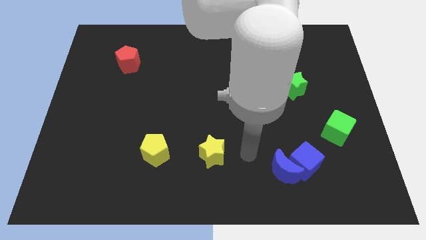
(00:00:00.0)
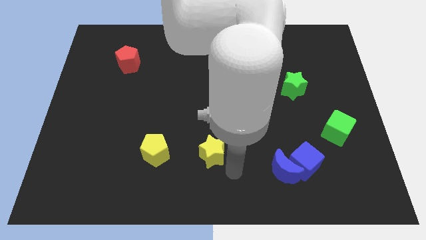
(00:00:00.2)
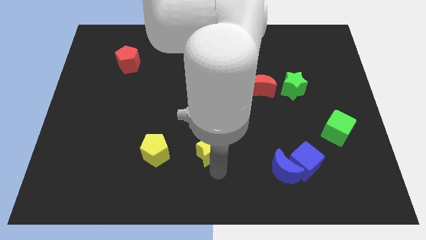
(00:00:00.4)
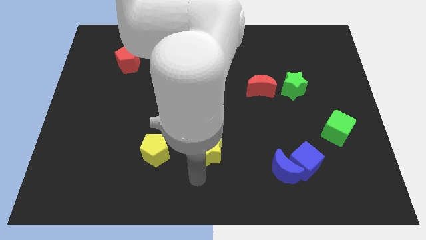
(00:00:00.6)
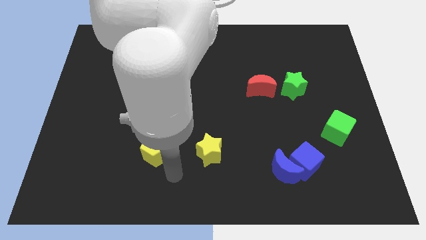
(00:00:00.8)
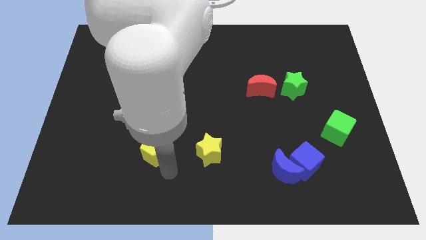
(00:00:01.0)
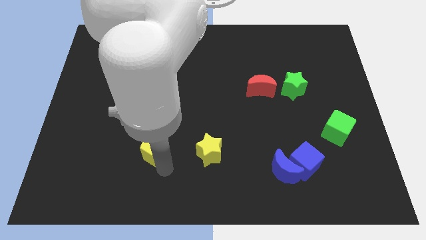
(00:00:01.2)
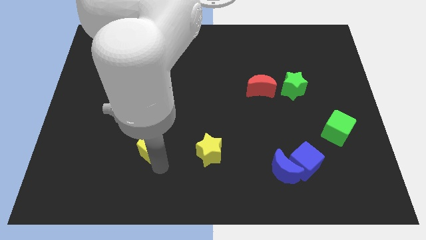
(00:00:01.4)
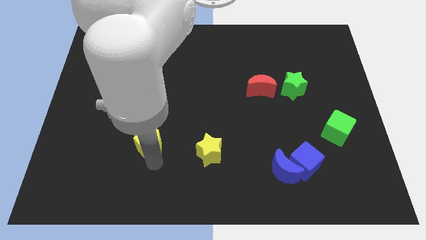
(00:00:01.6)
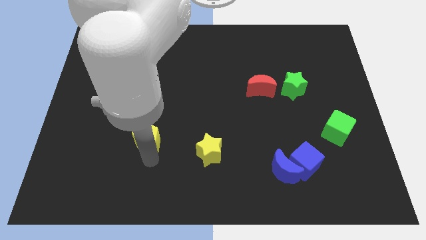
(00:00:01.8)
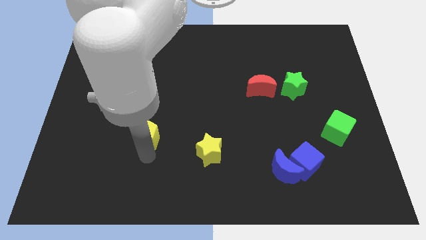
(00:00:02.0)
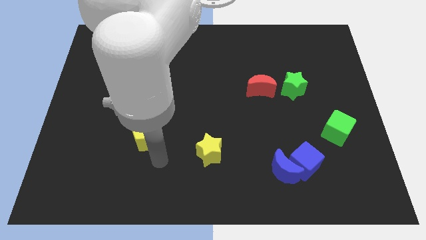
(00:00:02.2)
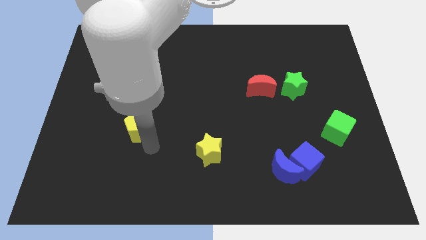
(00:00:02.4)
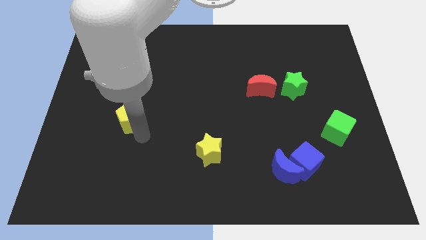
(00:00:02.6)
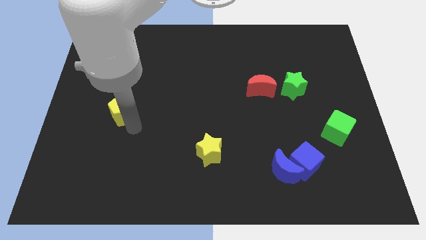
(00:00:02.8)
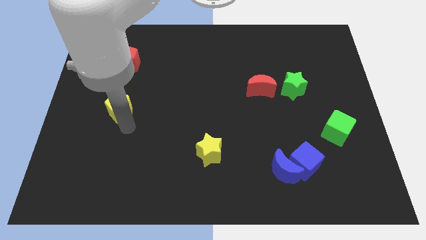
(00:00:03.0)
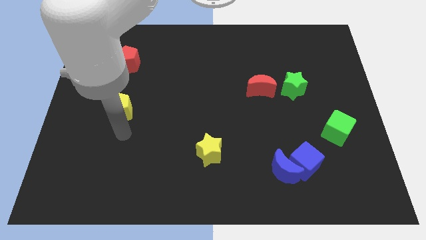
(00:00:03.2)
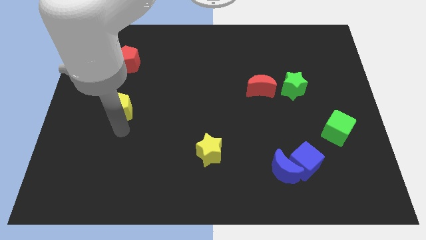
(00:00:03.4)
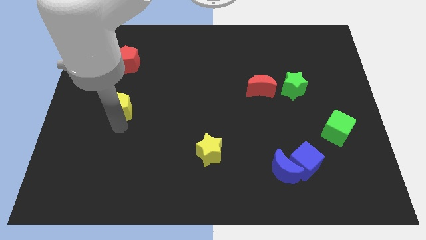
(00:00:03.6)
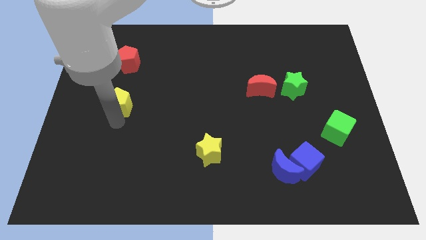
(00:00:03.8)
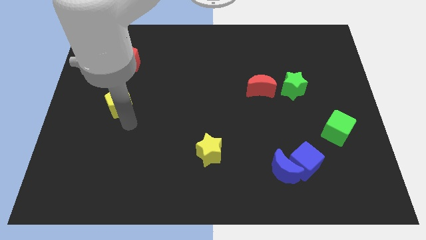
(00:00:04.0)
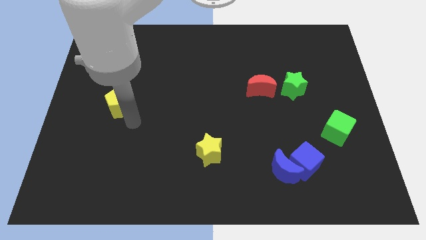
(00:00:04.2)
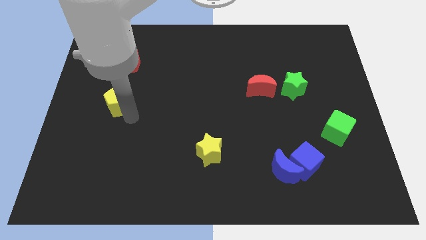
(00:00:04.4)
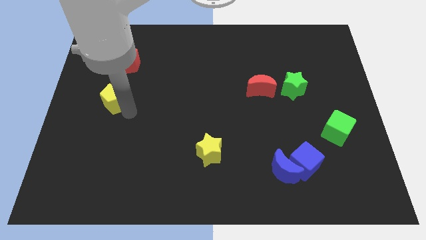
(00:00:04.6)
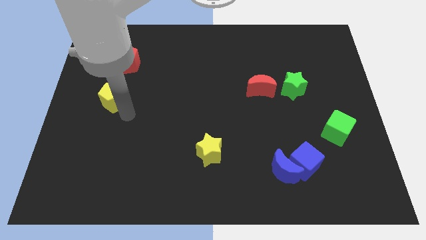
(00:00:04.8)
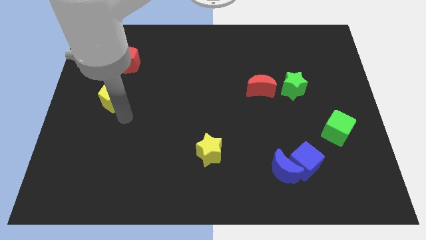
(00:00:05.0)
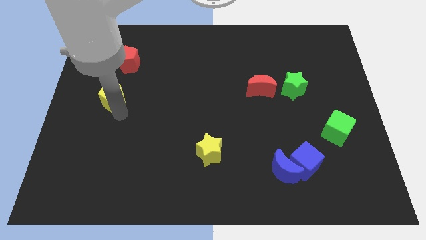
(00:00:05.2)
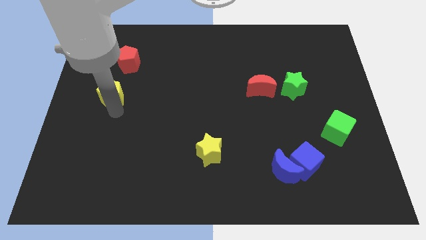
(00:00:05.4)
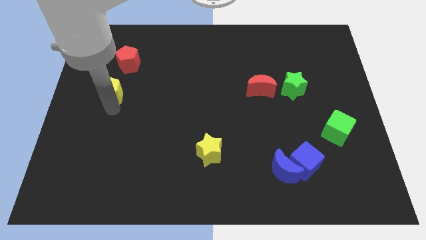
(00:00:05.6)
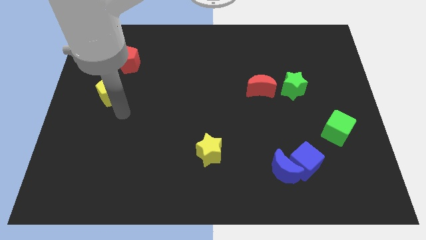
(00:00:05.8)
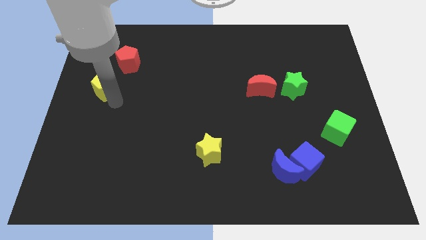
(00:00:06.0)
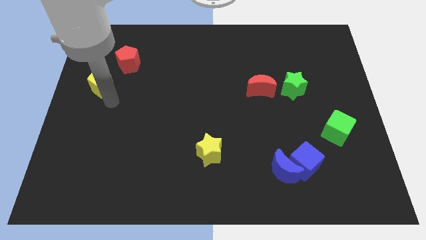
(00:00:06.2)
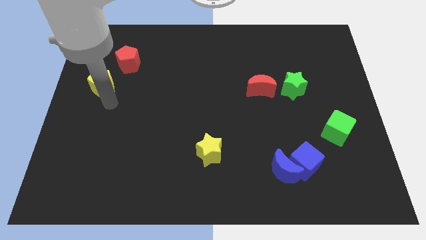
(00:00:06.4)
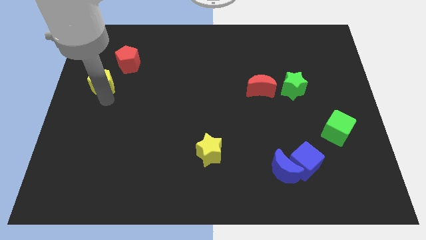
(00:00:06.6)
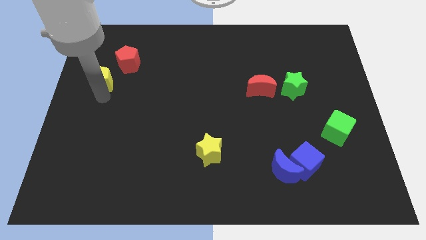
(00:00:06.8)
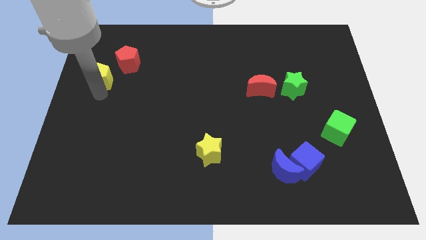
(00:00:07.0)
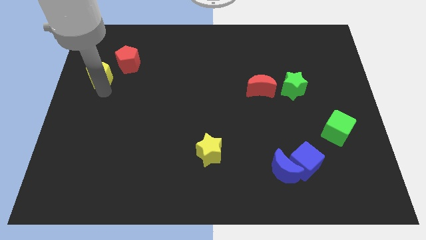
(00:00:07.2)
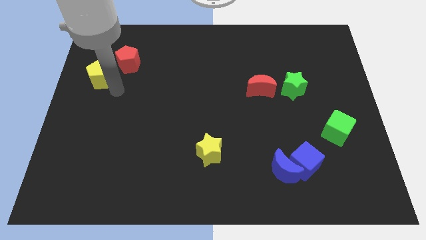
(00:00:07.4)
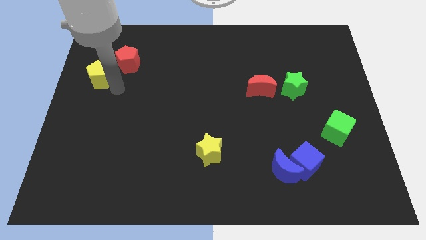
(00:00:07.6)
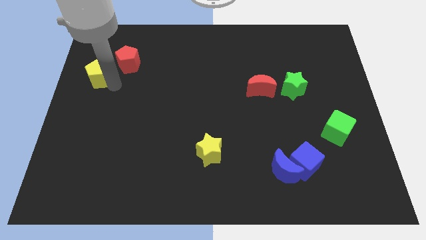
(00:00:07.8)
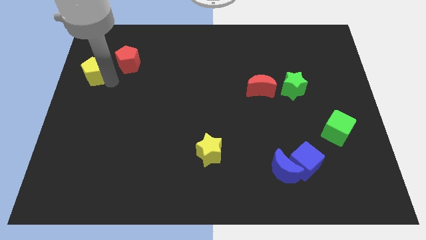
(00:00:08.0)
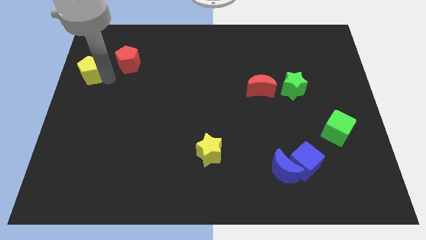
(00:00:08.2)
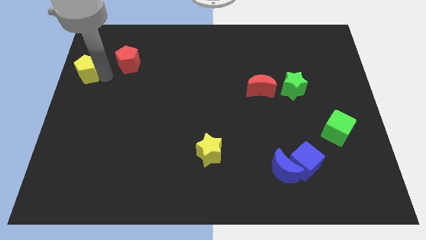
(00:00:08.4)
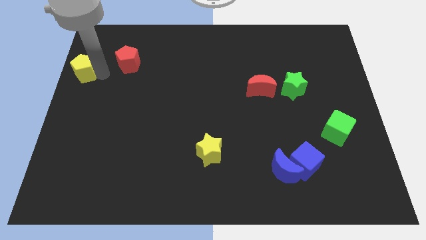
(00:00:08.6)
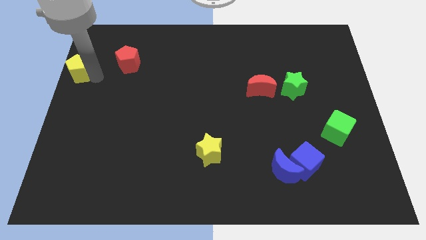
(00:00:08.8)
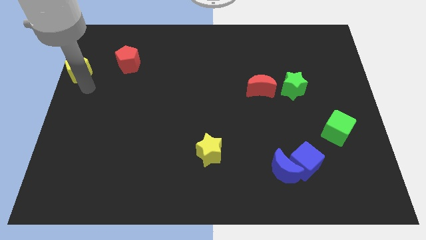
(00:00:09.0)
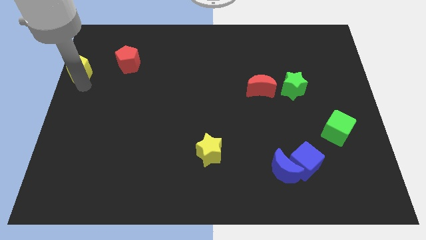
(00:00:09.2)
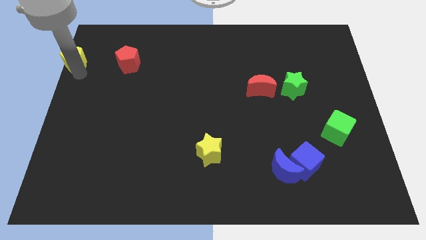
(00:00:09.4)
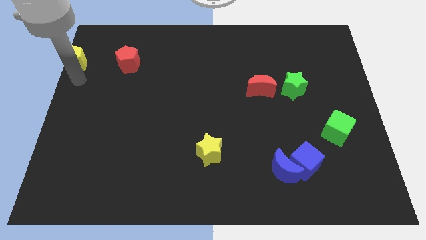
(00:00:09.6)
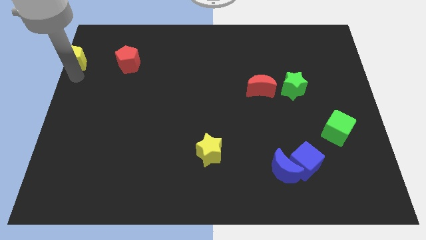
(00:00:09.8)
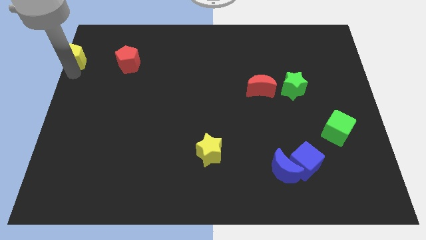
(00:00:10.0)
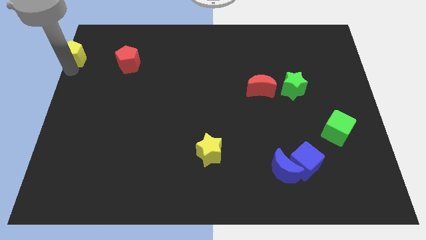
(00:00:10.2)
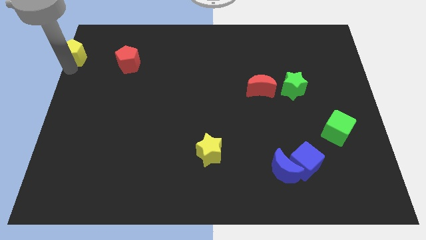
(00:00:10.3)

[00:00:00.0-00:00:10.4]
put the yellow pentagon to the top left

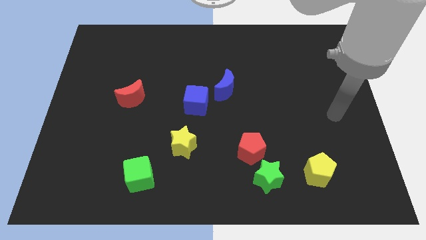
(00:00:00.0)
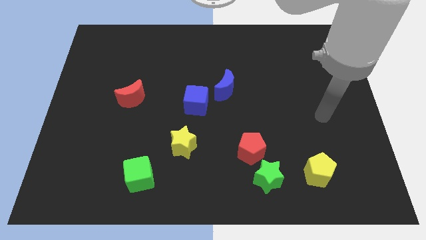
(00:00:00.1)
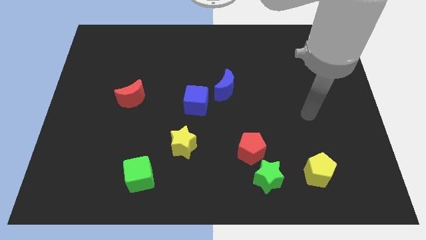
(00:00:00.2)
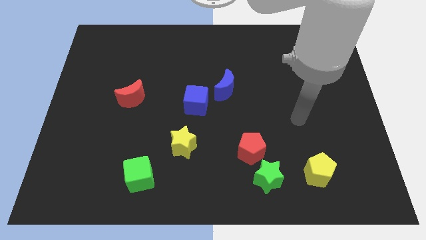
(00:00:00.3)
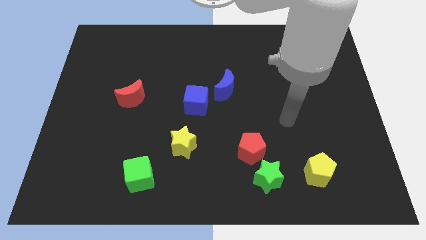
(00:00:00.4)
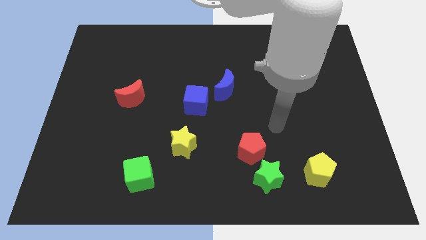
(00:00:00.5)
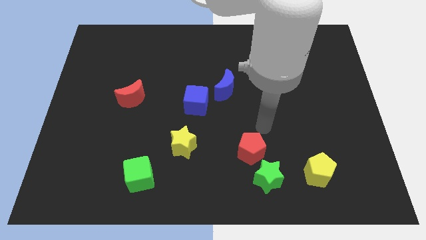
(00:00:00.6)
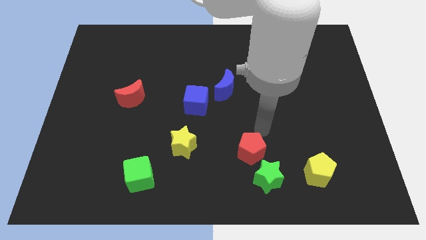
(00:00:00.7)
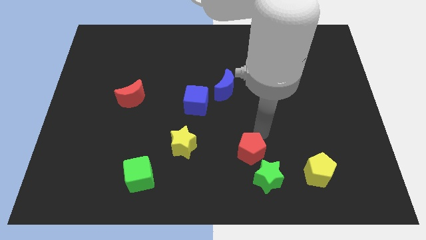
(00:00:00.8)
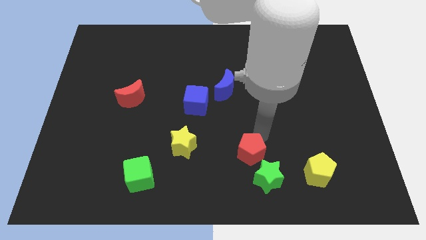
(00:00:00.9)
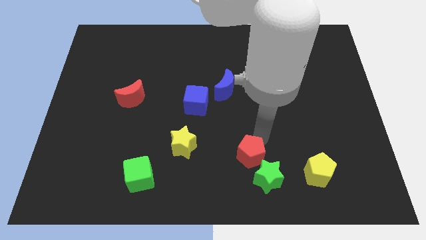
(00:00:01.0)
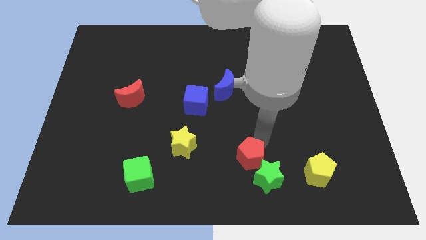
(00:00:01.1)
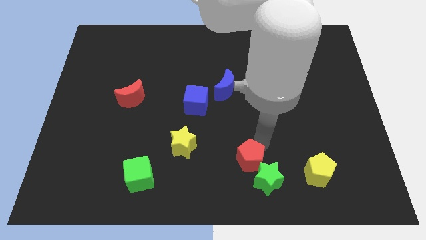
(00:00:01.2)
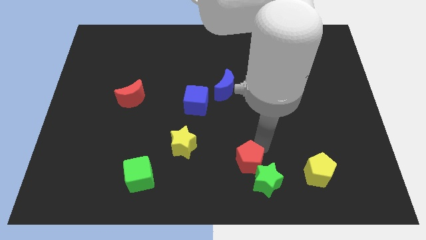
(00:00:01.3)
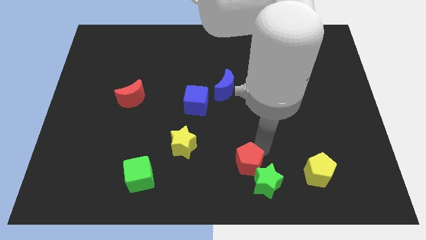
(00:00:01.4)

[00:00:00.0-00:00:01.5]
move the red pentagon to the bottom side
